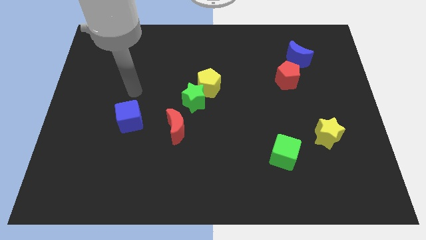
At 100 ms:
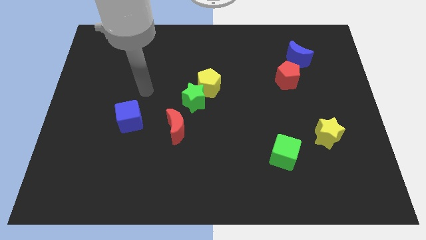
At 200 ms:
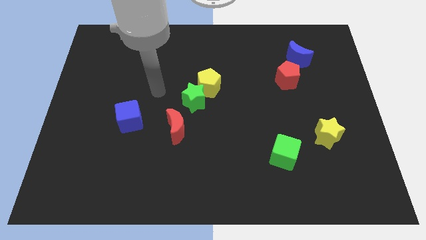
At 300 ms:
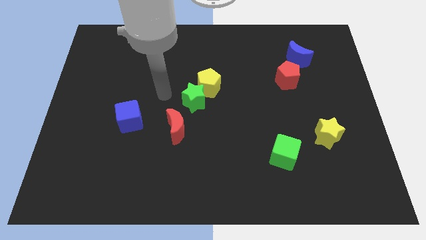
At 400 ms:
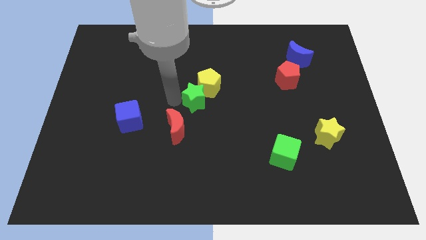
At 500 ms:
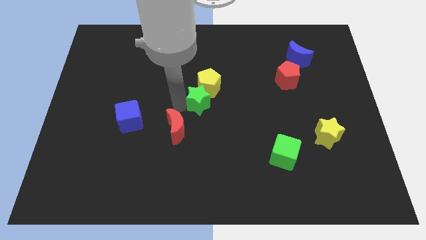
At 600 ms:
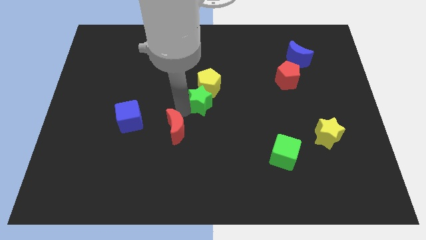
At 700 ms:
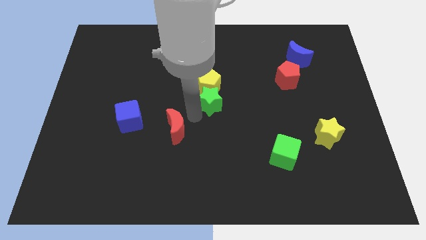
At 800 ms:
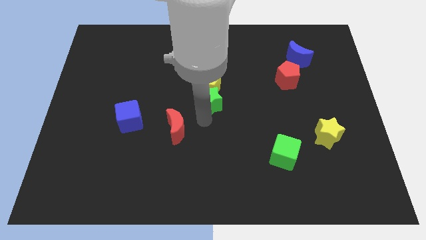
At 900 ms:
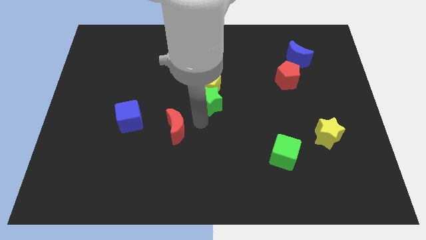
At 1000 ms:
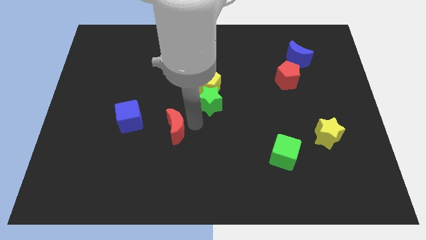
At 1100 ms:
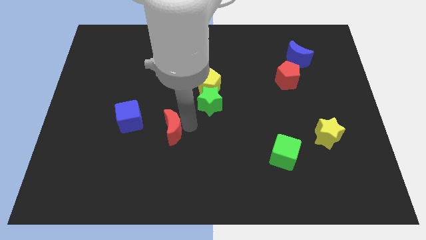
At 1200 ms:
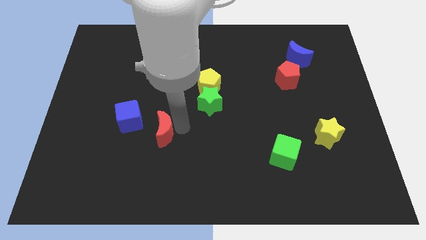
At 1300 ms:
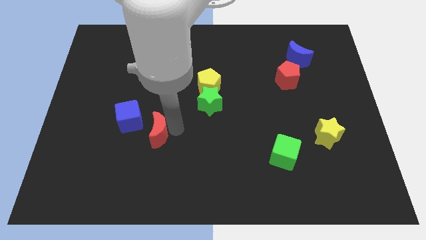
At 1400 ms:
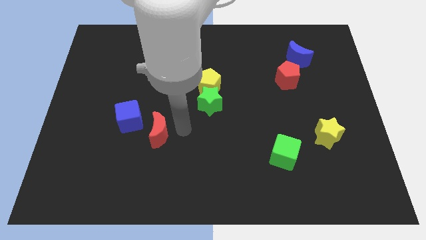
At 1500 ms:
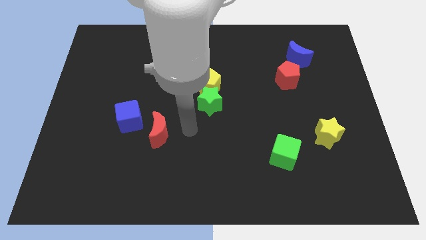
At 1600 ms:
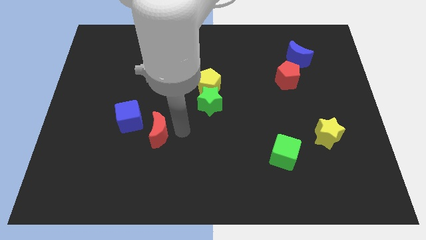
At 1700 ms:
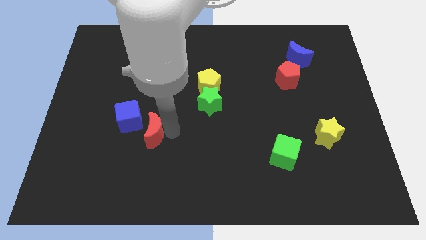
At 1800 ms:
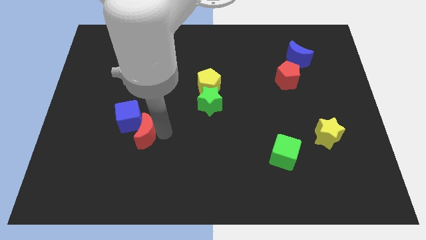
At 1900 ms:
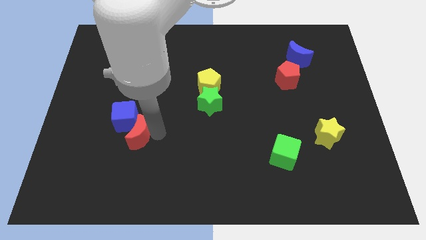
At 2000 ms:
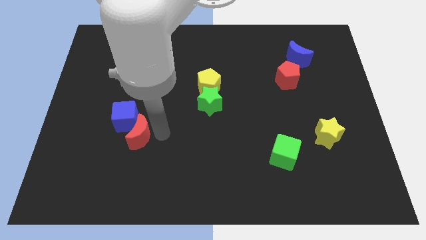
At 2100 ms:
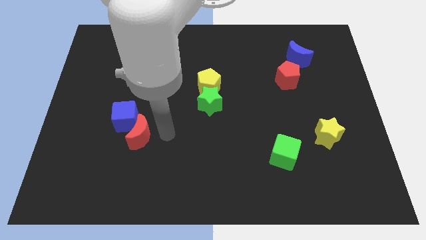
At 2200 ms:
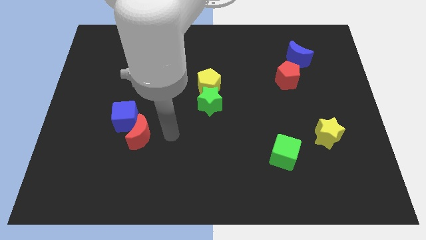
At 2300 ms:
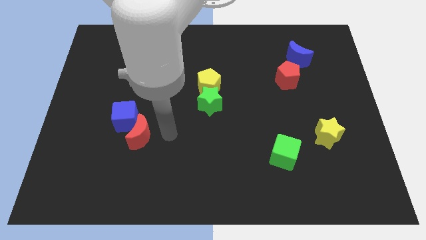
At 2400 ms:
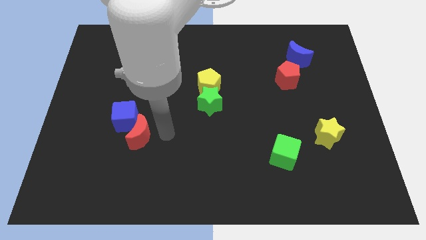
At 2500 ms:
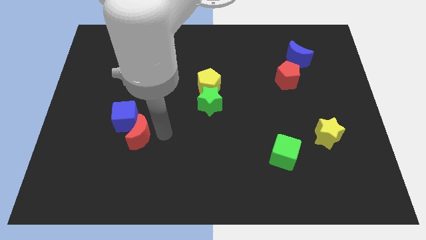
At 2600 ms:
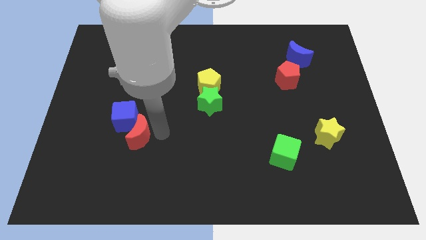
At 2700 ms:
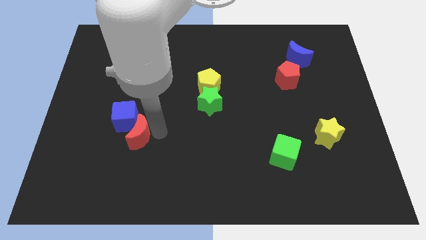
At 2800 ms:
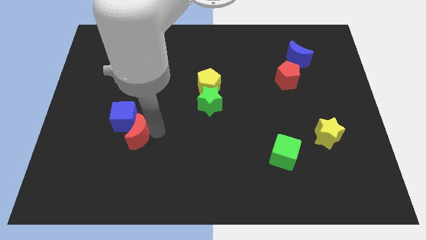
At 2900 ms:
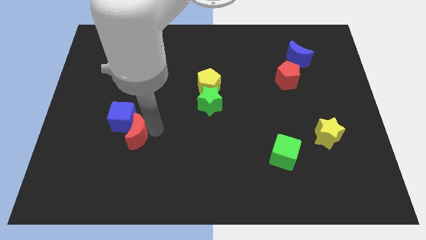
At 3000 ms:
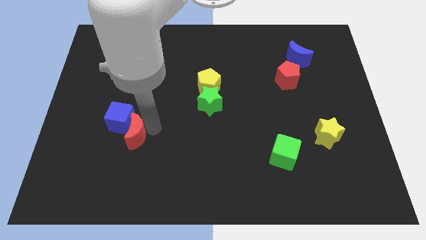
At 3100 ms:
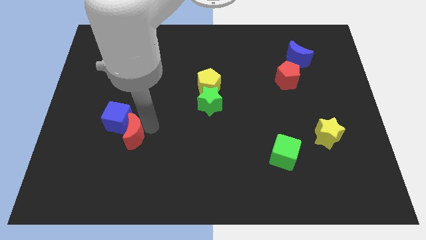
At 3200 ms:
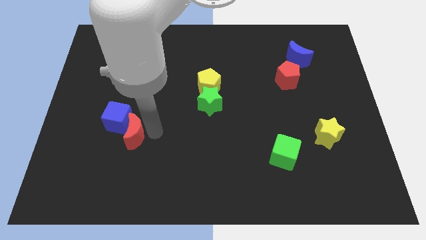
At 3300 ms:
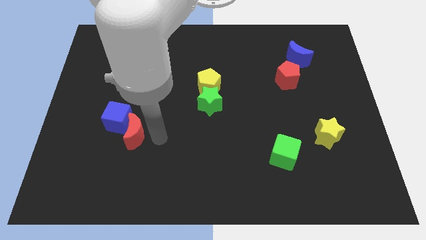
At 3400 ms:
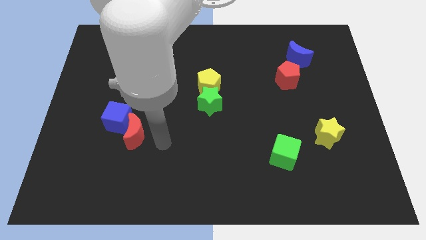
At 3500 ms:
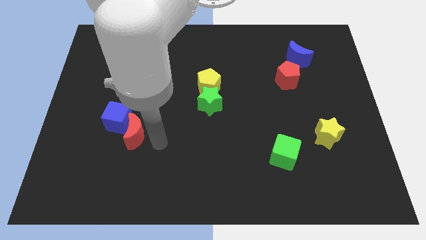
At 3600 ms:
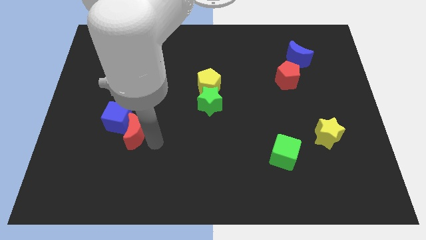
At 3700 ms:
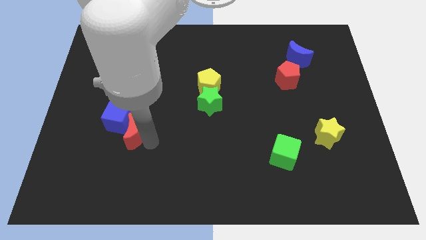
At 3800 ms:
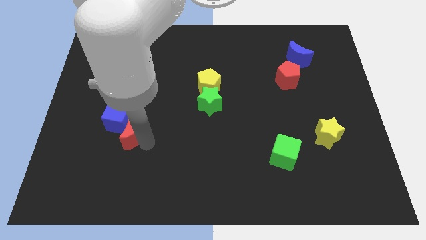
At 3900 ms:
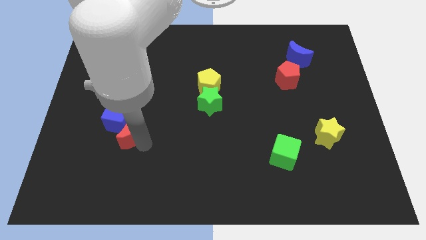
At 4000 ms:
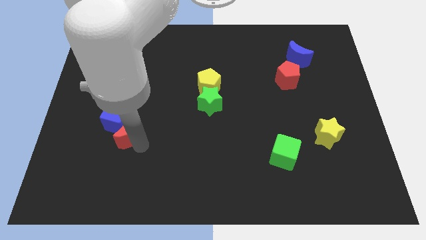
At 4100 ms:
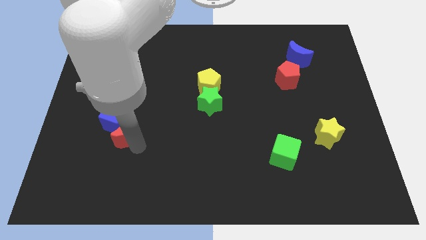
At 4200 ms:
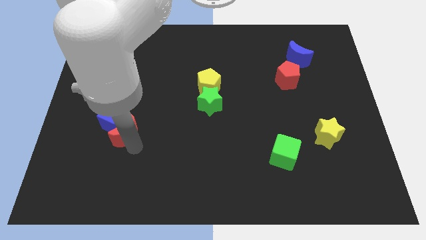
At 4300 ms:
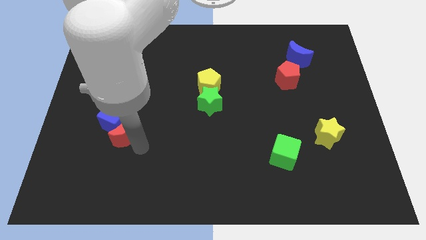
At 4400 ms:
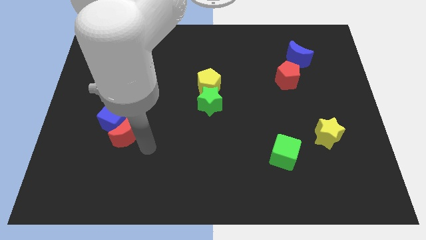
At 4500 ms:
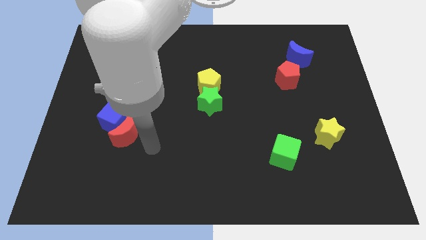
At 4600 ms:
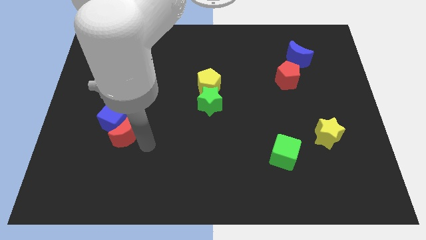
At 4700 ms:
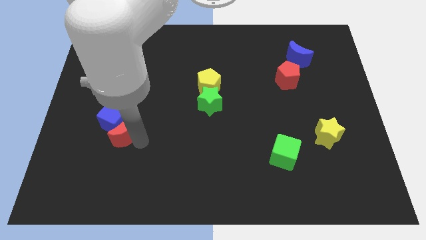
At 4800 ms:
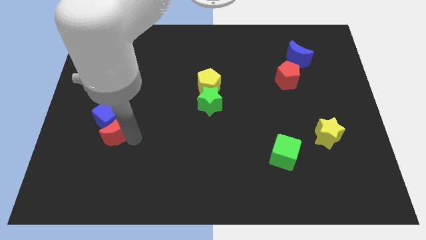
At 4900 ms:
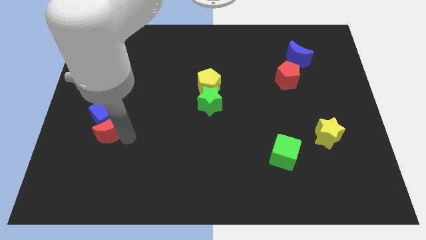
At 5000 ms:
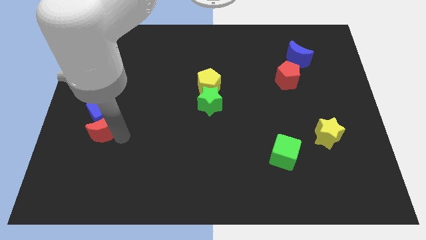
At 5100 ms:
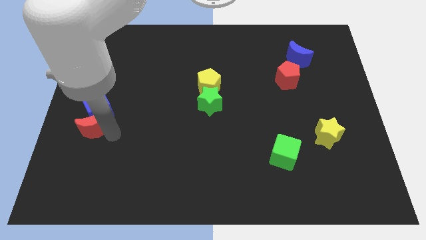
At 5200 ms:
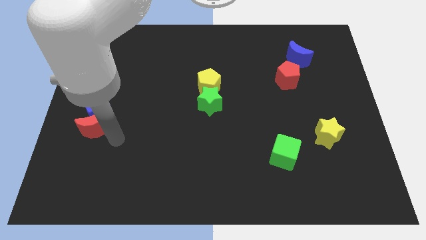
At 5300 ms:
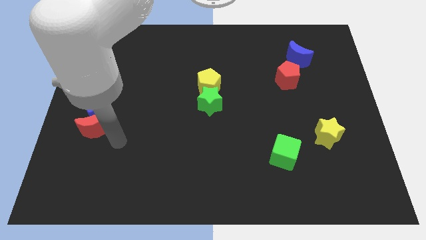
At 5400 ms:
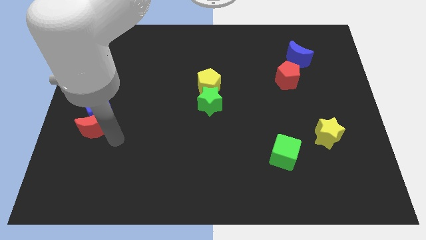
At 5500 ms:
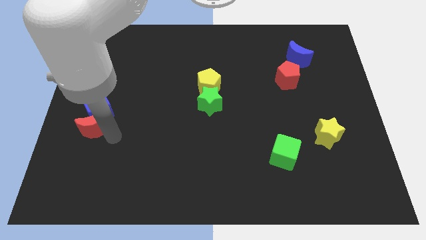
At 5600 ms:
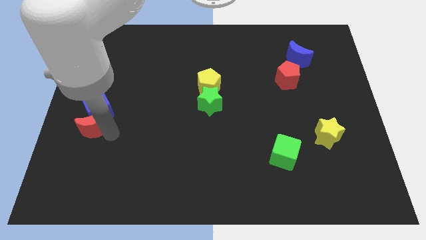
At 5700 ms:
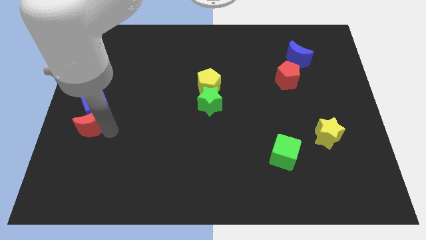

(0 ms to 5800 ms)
slide the red moon to the left side

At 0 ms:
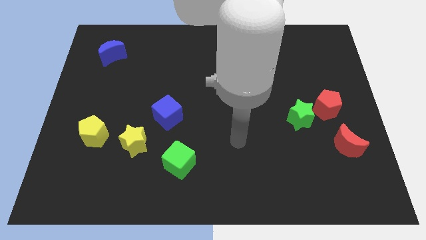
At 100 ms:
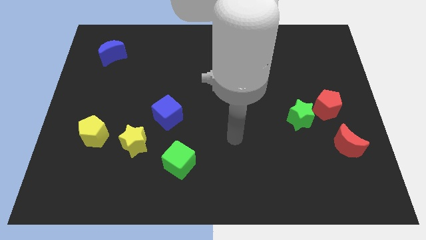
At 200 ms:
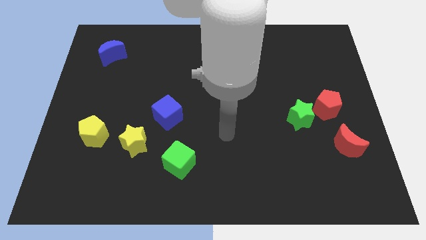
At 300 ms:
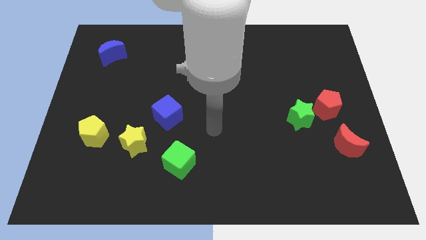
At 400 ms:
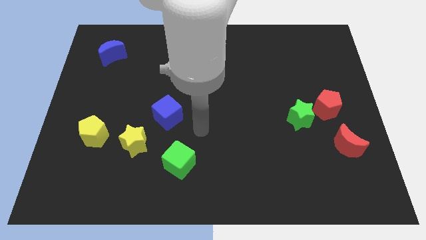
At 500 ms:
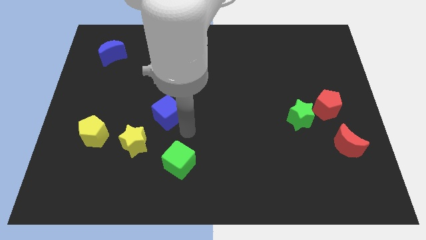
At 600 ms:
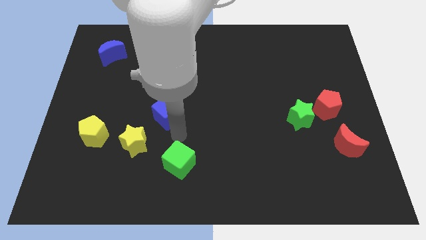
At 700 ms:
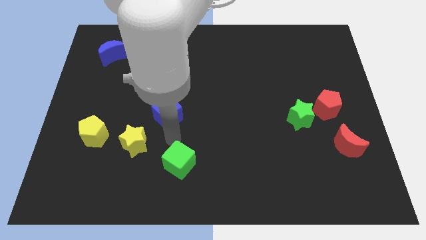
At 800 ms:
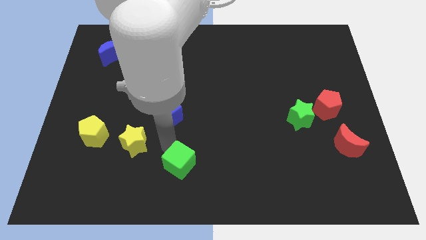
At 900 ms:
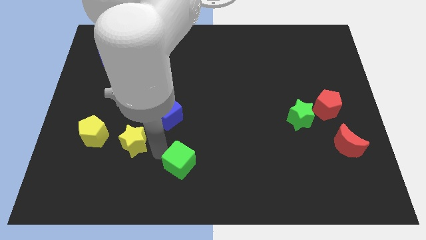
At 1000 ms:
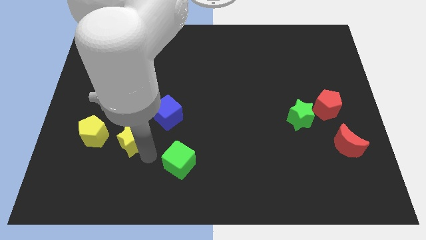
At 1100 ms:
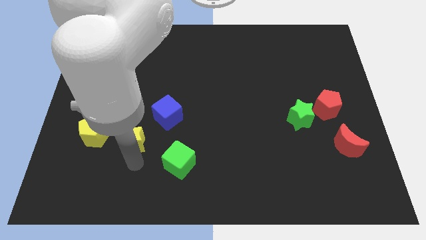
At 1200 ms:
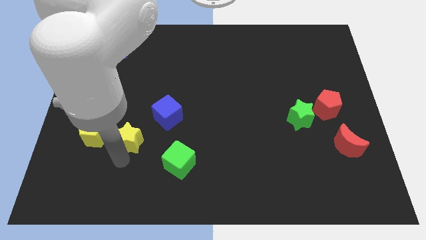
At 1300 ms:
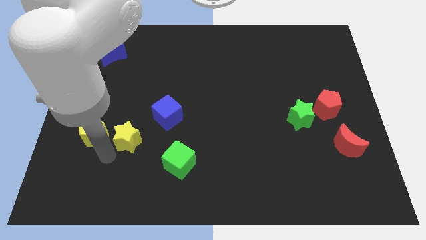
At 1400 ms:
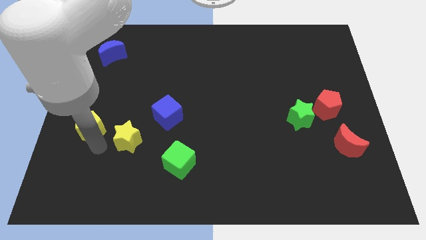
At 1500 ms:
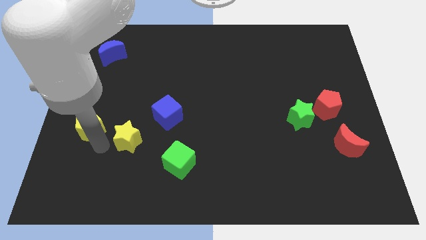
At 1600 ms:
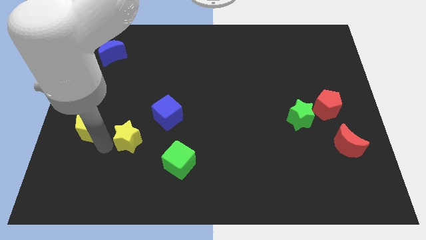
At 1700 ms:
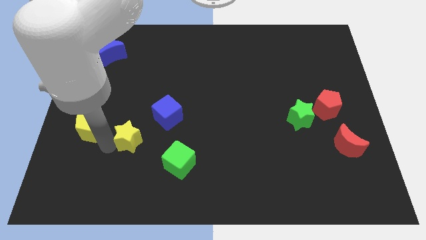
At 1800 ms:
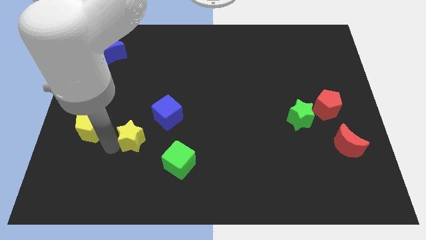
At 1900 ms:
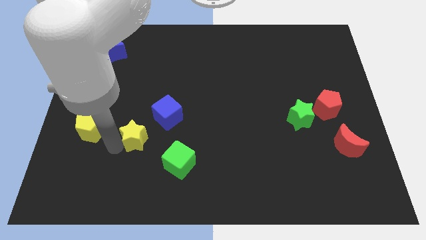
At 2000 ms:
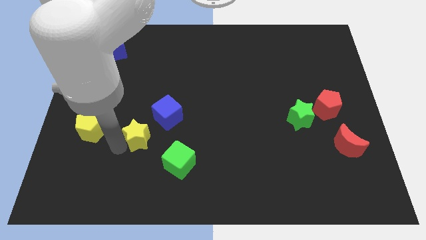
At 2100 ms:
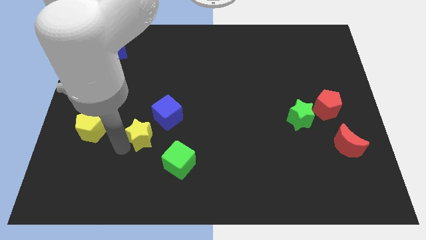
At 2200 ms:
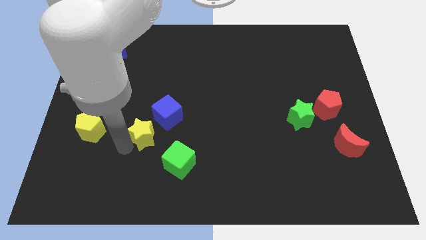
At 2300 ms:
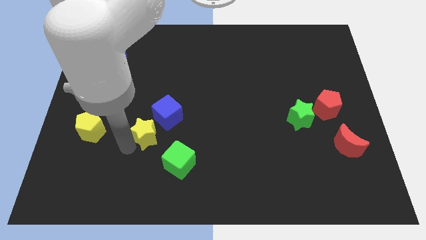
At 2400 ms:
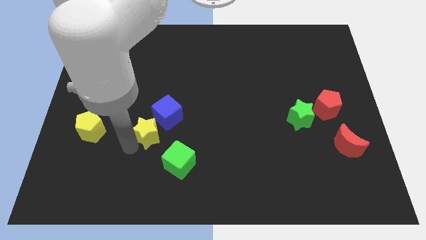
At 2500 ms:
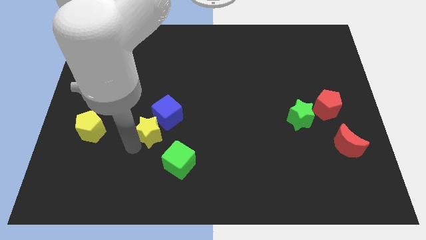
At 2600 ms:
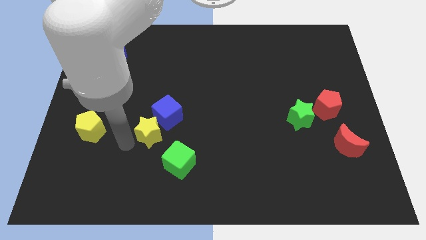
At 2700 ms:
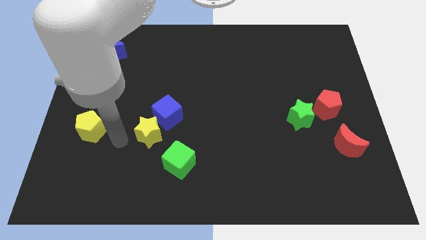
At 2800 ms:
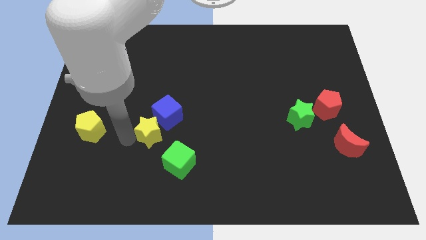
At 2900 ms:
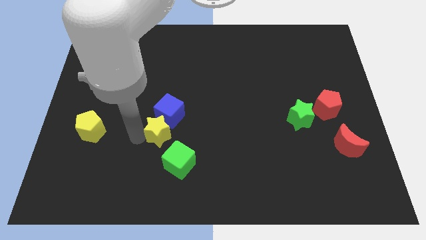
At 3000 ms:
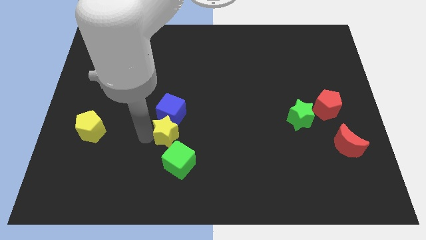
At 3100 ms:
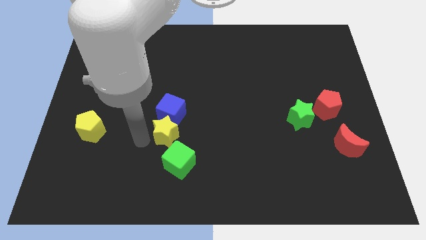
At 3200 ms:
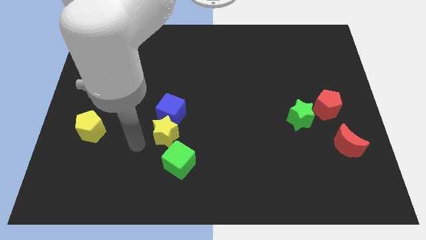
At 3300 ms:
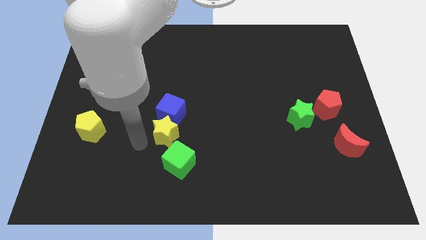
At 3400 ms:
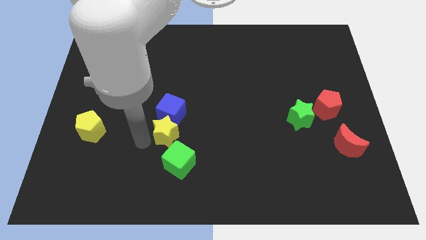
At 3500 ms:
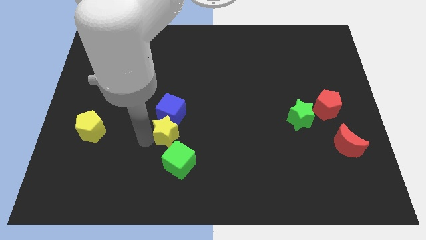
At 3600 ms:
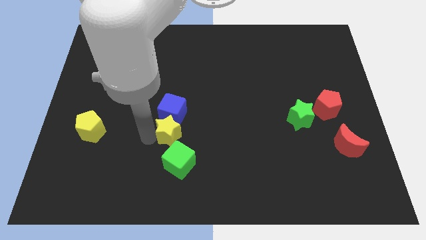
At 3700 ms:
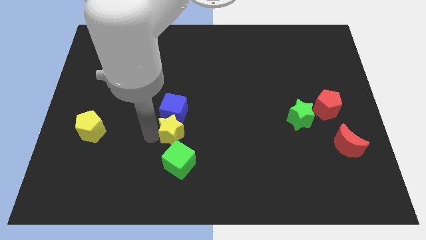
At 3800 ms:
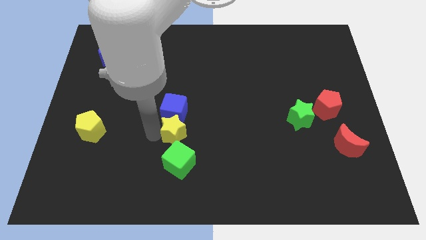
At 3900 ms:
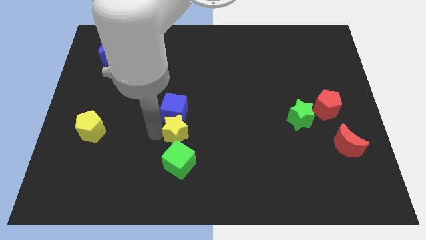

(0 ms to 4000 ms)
slide the yellow star to the middle of the board
